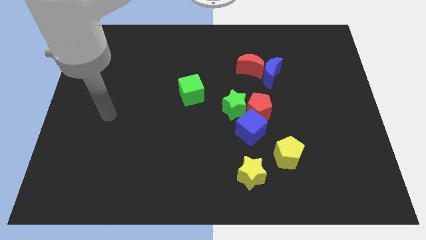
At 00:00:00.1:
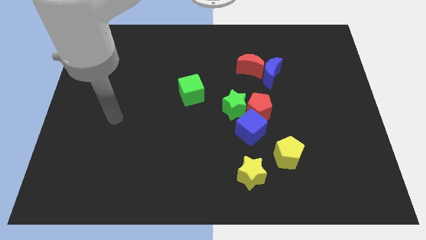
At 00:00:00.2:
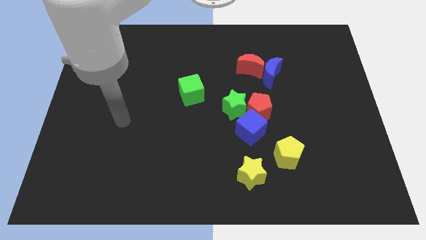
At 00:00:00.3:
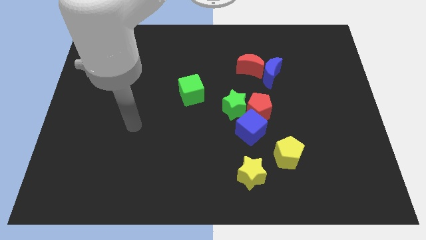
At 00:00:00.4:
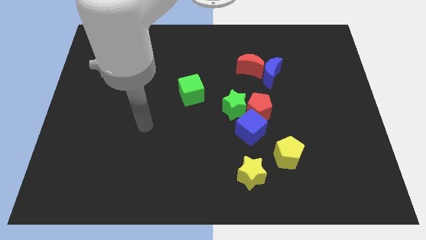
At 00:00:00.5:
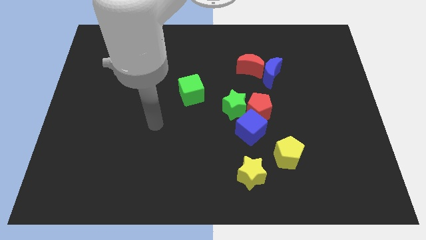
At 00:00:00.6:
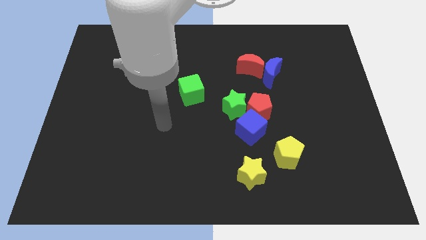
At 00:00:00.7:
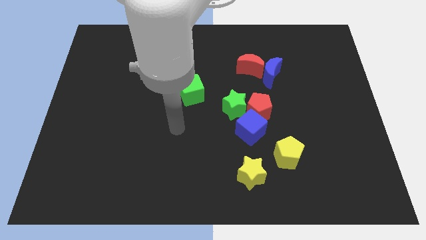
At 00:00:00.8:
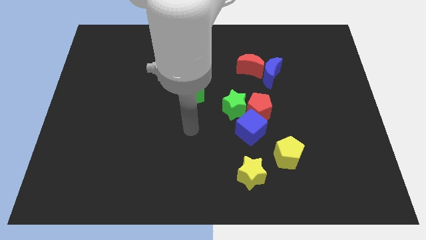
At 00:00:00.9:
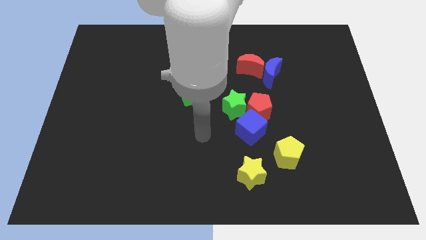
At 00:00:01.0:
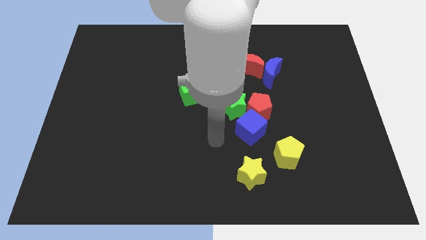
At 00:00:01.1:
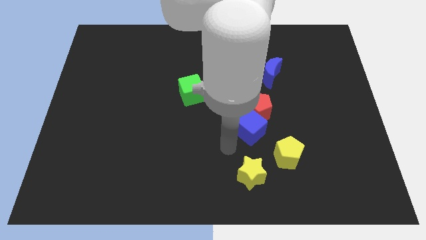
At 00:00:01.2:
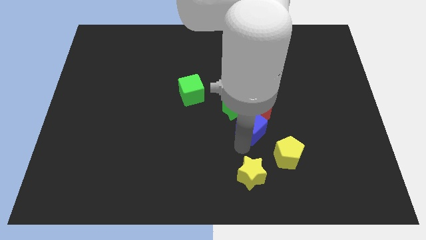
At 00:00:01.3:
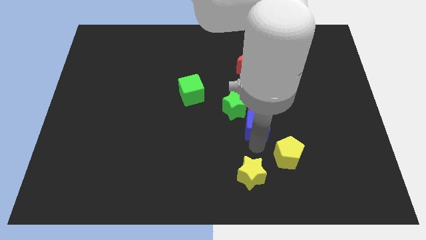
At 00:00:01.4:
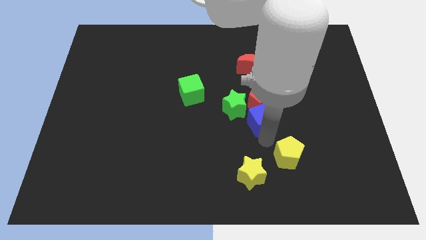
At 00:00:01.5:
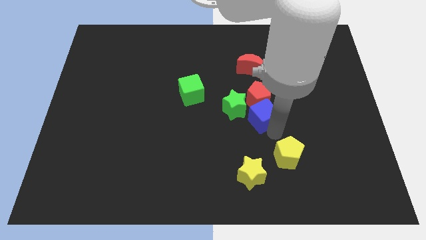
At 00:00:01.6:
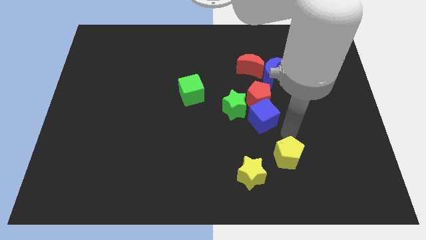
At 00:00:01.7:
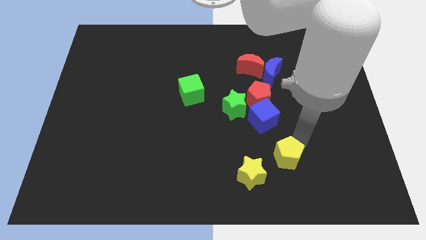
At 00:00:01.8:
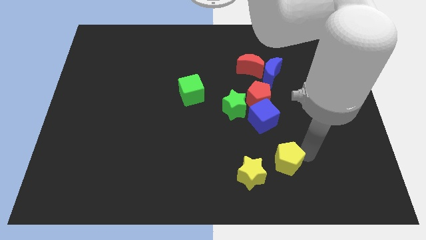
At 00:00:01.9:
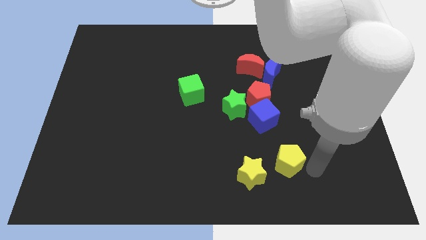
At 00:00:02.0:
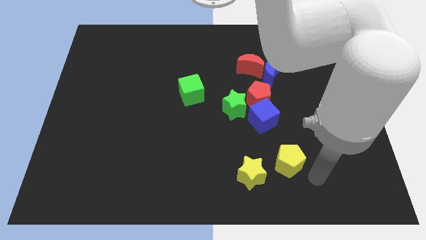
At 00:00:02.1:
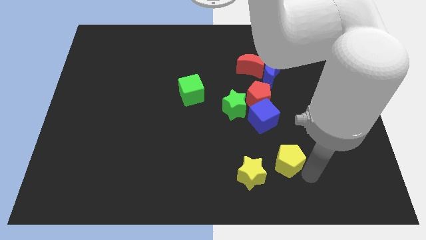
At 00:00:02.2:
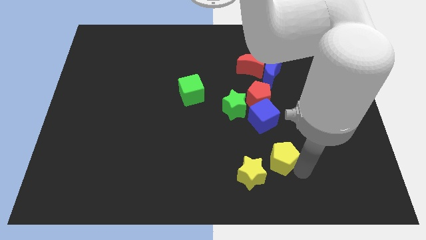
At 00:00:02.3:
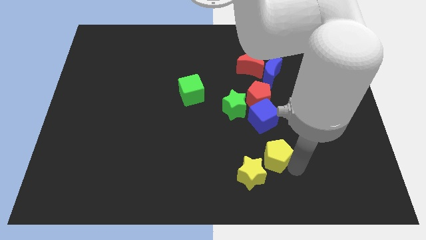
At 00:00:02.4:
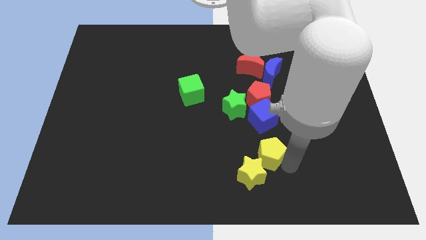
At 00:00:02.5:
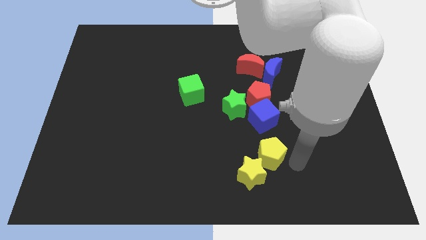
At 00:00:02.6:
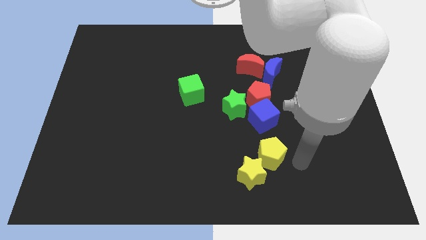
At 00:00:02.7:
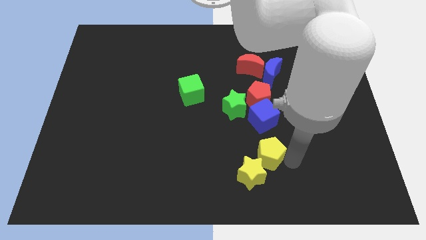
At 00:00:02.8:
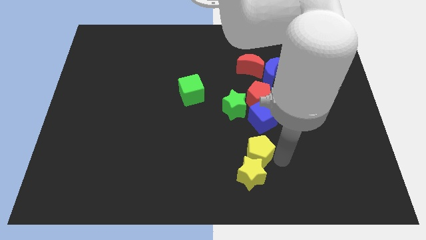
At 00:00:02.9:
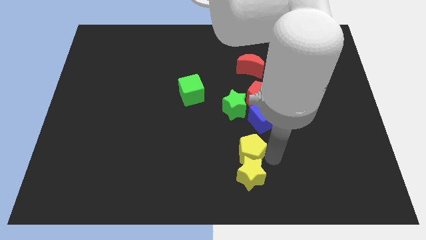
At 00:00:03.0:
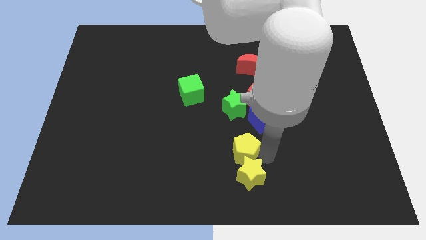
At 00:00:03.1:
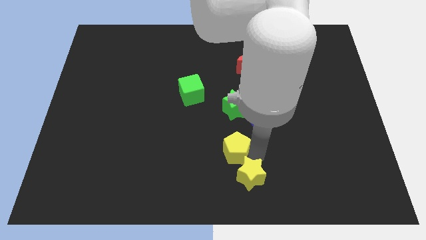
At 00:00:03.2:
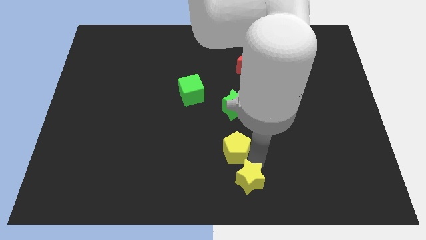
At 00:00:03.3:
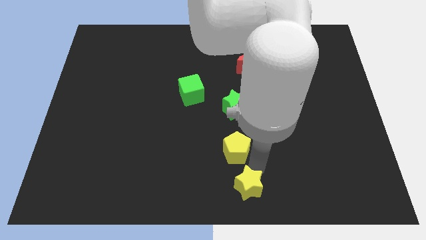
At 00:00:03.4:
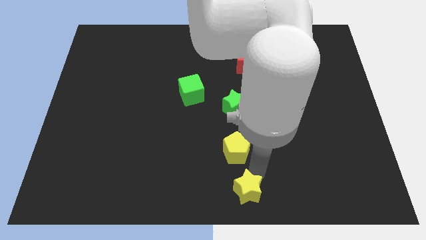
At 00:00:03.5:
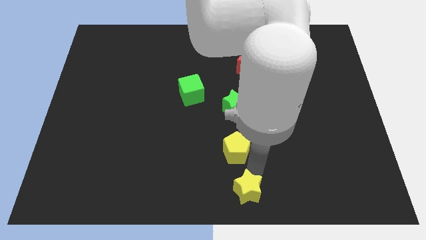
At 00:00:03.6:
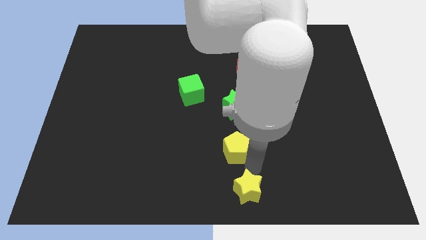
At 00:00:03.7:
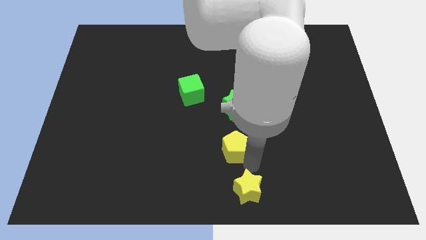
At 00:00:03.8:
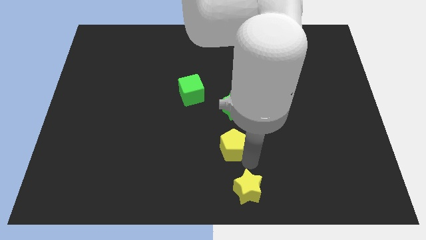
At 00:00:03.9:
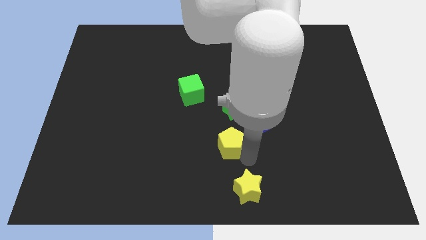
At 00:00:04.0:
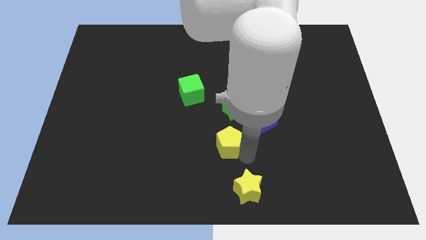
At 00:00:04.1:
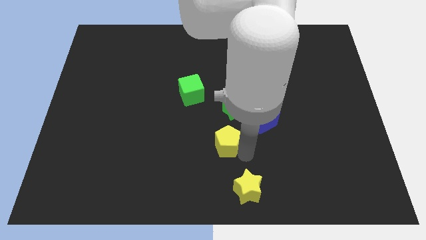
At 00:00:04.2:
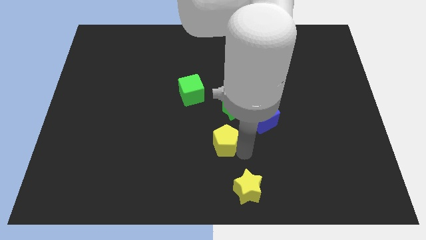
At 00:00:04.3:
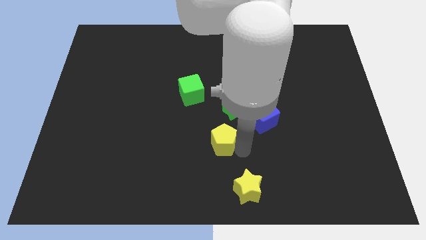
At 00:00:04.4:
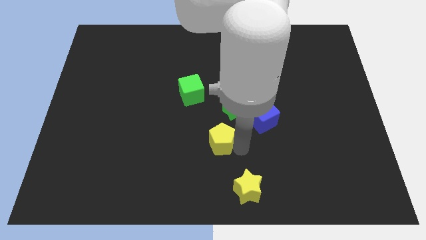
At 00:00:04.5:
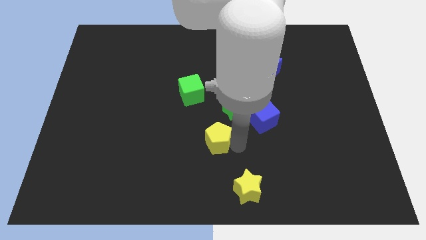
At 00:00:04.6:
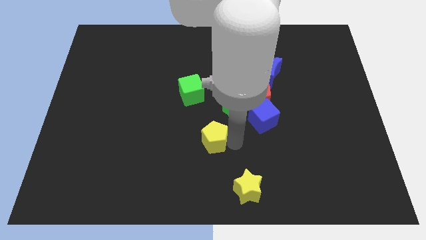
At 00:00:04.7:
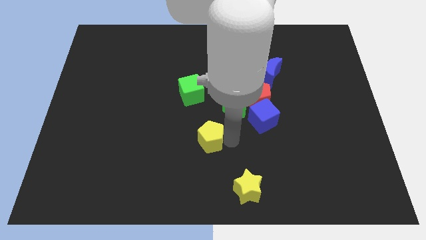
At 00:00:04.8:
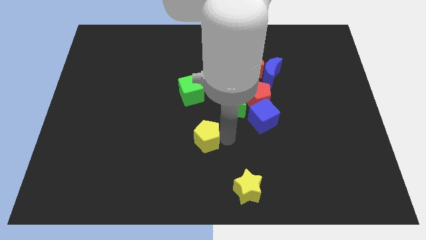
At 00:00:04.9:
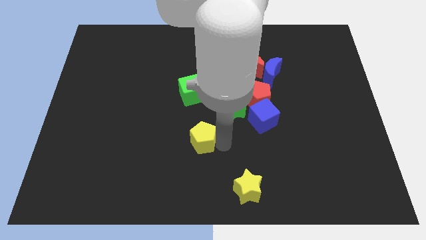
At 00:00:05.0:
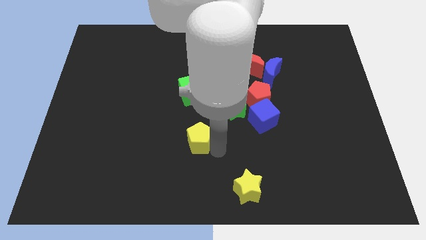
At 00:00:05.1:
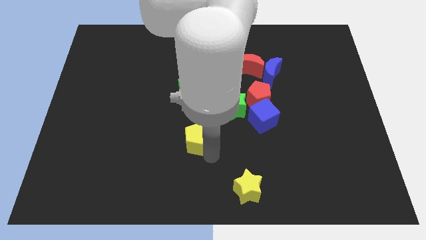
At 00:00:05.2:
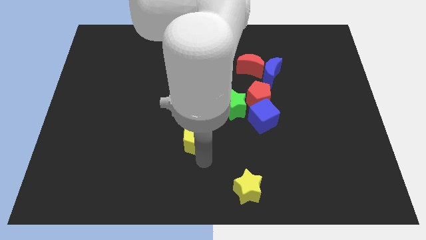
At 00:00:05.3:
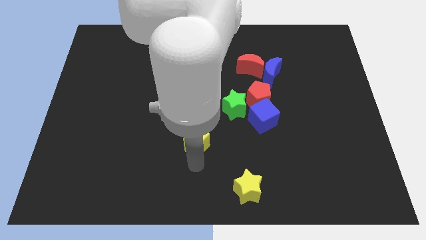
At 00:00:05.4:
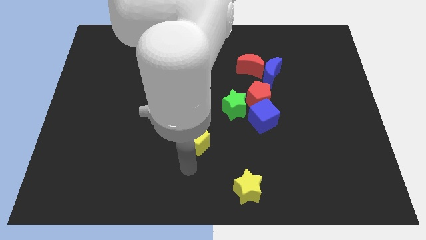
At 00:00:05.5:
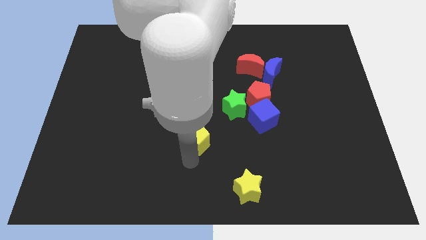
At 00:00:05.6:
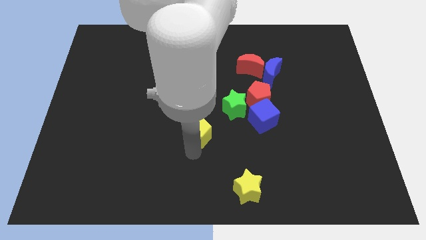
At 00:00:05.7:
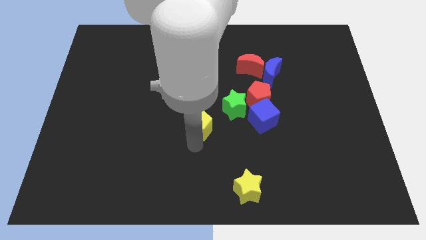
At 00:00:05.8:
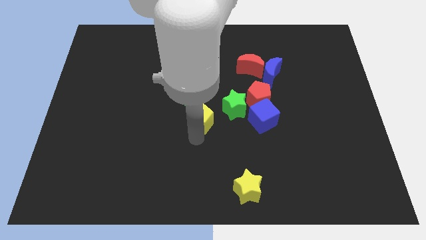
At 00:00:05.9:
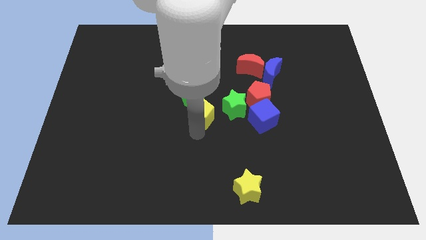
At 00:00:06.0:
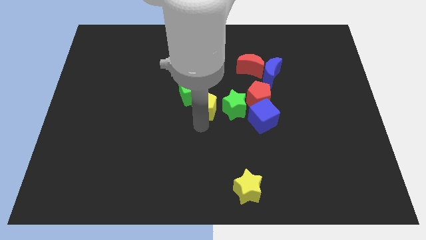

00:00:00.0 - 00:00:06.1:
push the yellow pentagon to the green cube

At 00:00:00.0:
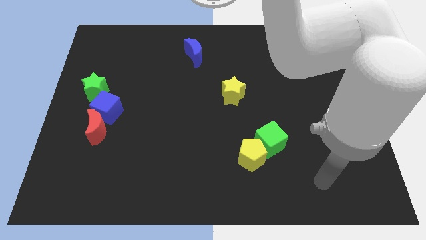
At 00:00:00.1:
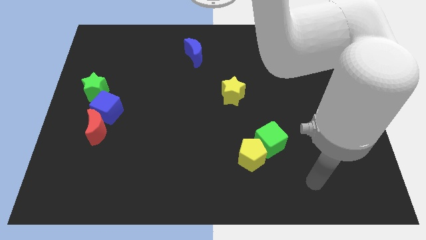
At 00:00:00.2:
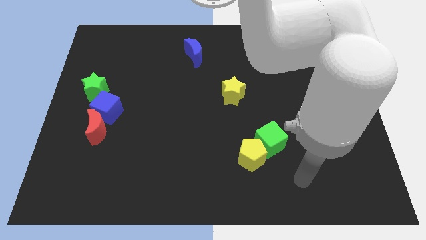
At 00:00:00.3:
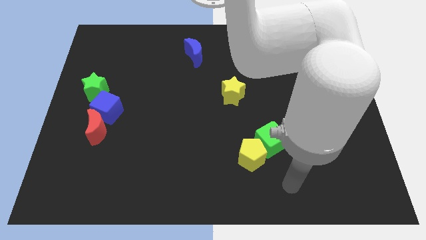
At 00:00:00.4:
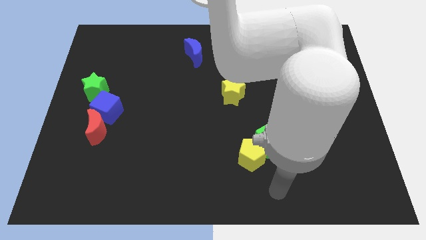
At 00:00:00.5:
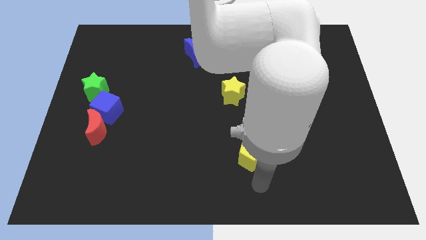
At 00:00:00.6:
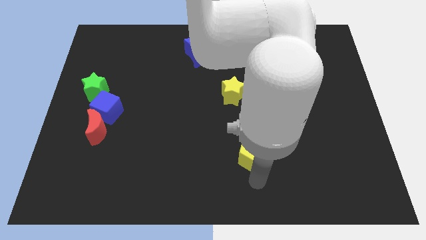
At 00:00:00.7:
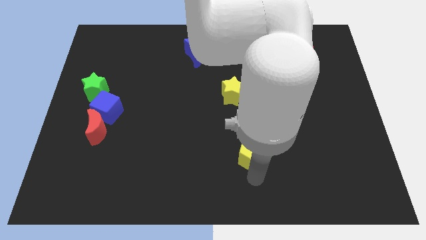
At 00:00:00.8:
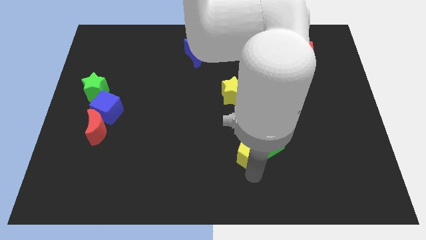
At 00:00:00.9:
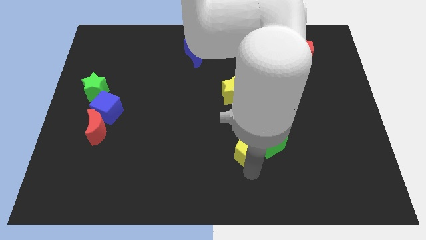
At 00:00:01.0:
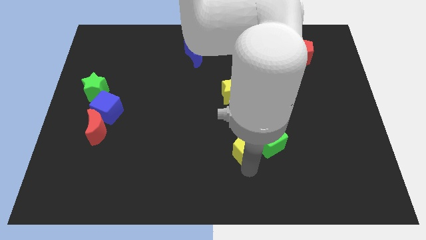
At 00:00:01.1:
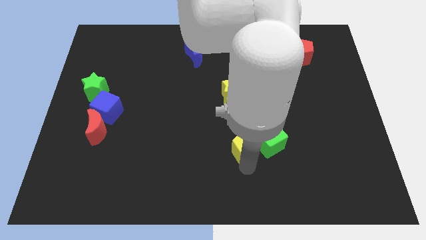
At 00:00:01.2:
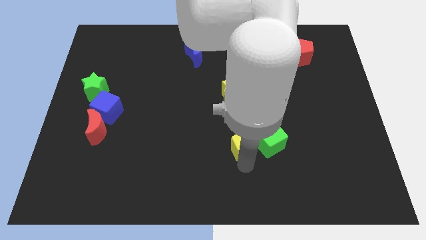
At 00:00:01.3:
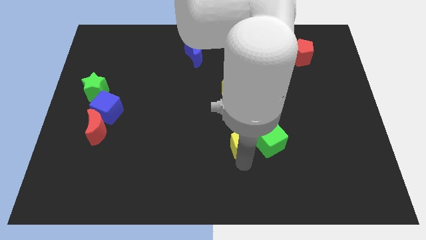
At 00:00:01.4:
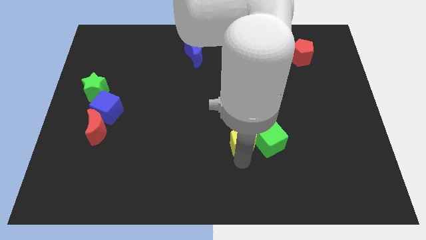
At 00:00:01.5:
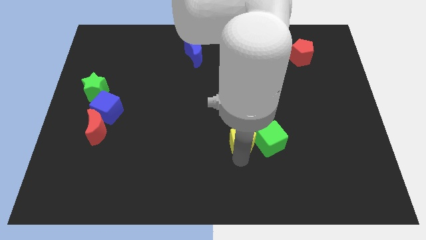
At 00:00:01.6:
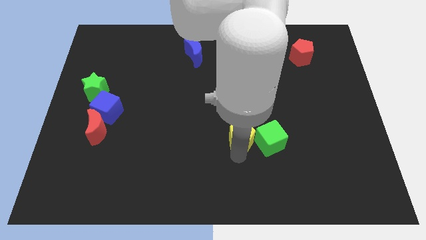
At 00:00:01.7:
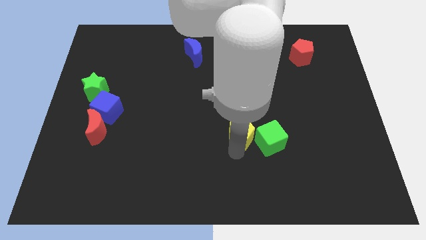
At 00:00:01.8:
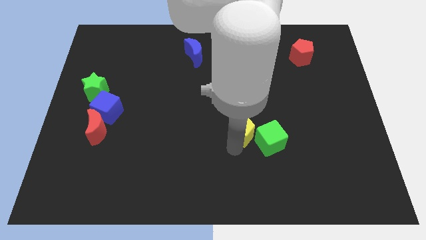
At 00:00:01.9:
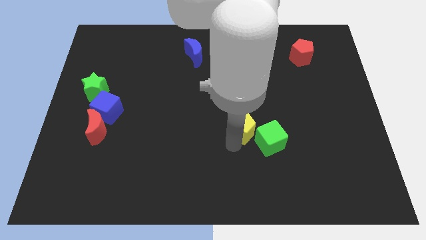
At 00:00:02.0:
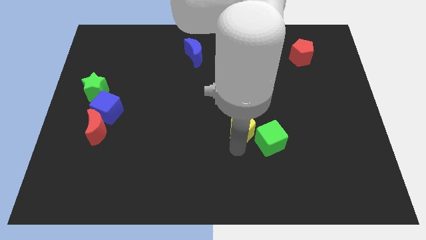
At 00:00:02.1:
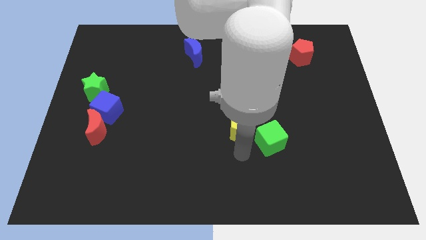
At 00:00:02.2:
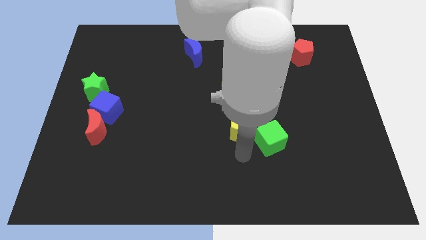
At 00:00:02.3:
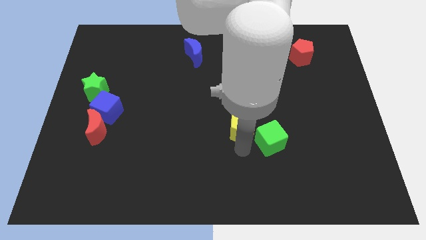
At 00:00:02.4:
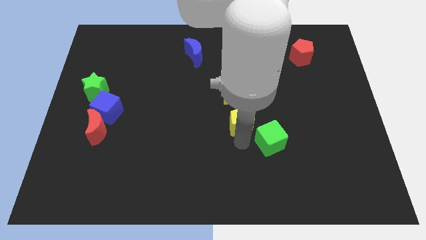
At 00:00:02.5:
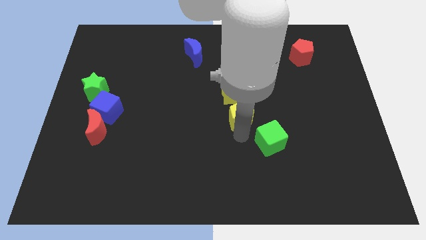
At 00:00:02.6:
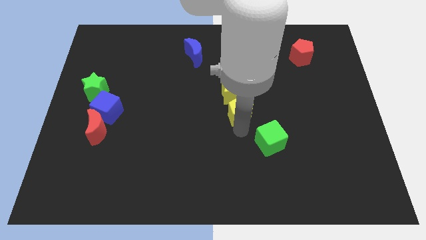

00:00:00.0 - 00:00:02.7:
slide the yellow pentagon to the yellow star
